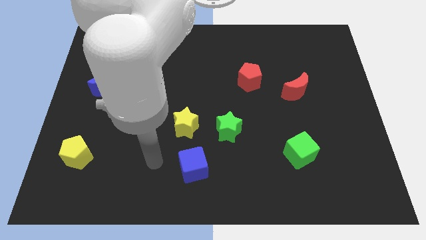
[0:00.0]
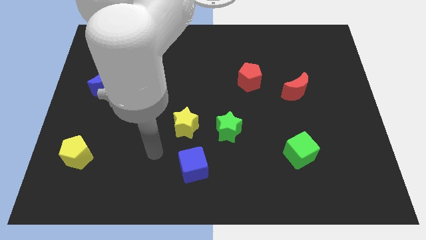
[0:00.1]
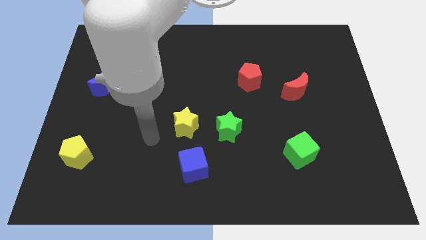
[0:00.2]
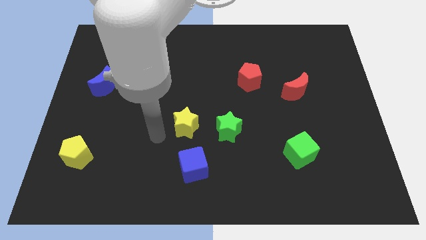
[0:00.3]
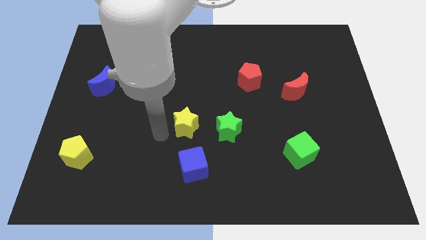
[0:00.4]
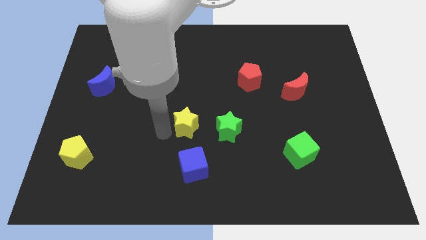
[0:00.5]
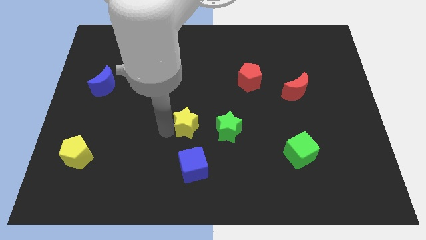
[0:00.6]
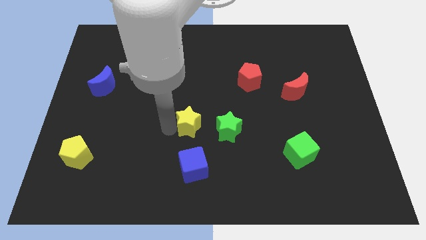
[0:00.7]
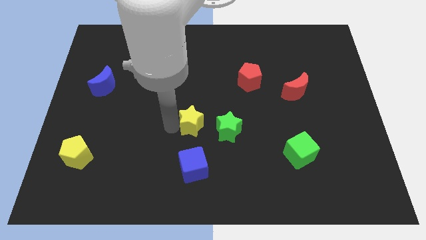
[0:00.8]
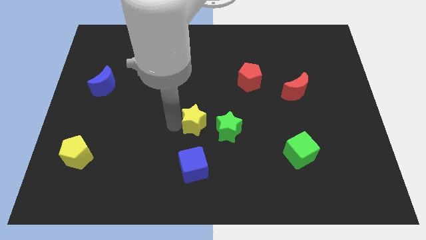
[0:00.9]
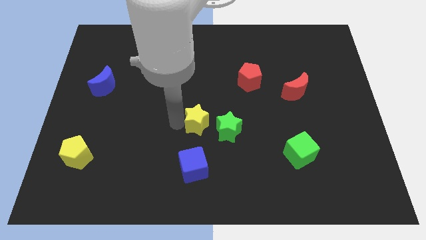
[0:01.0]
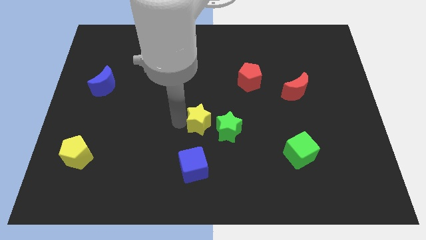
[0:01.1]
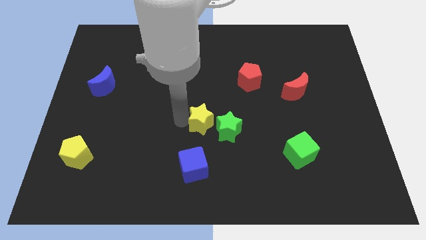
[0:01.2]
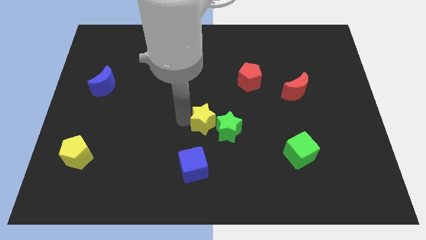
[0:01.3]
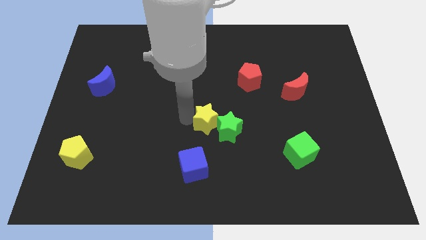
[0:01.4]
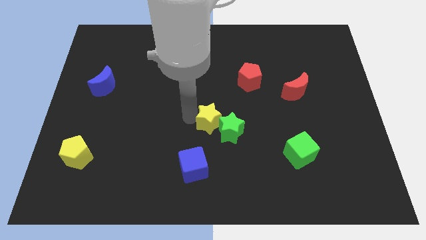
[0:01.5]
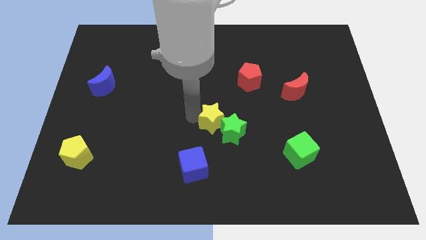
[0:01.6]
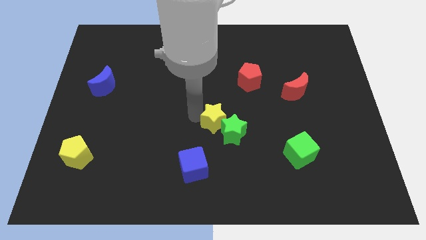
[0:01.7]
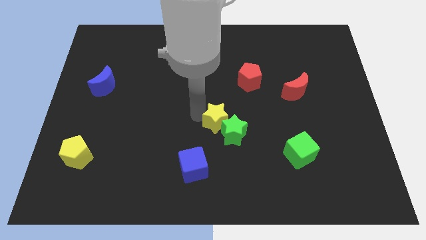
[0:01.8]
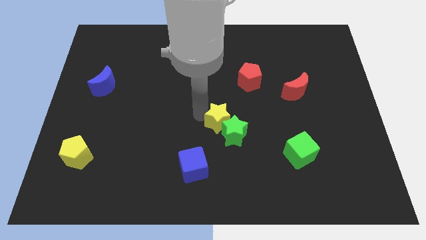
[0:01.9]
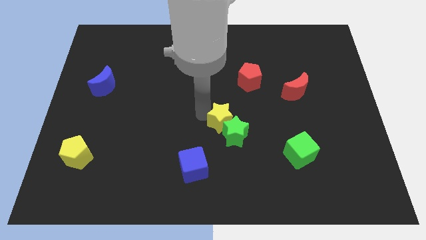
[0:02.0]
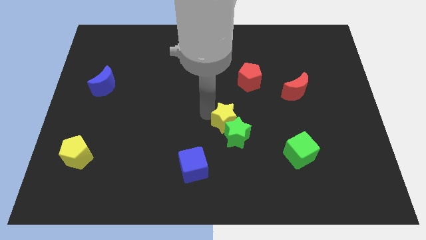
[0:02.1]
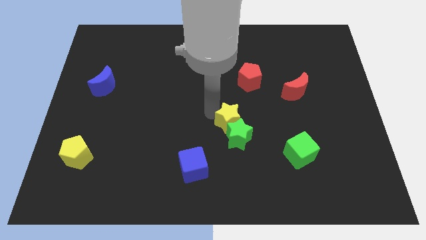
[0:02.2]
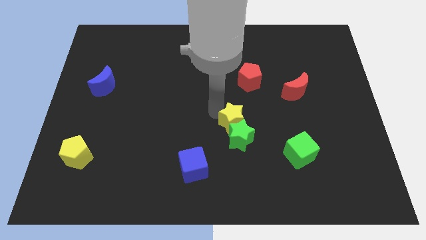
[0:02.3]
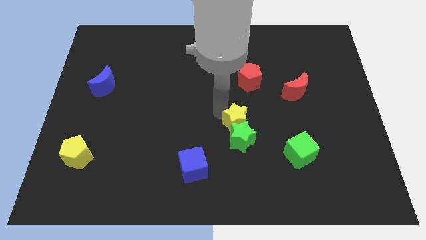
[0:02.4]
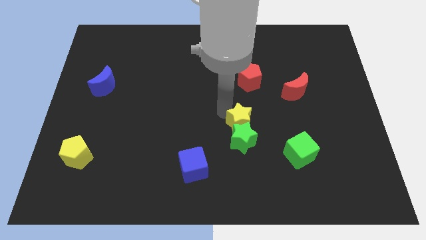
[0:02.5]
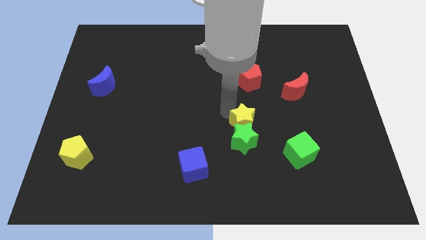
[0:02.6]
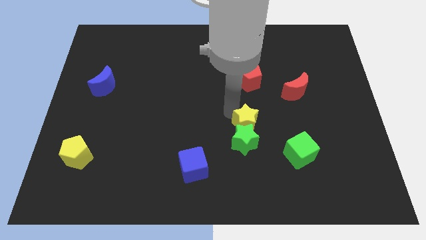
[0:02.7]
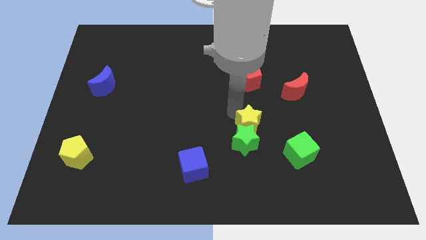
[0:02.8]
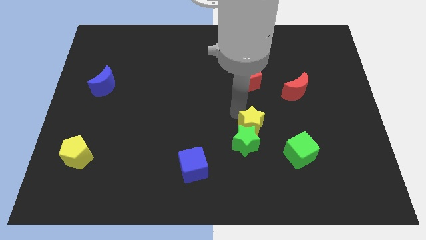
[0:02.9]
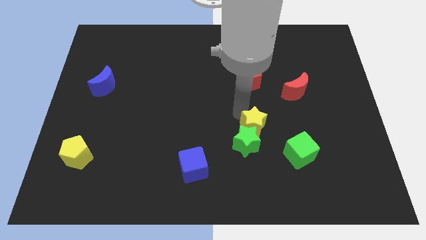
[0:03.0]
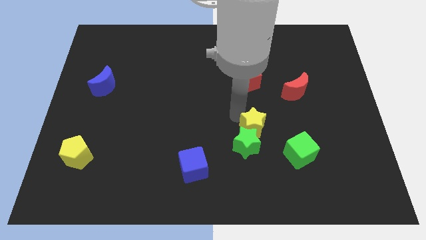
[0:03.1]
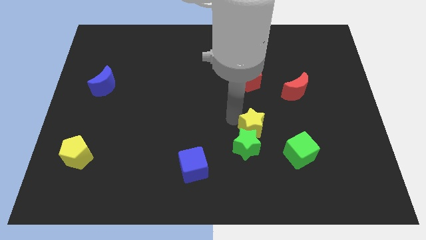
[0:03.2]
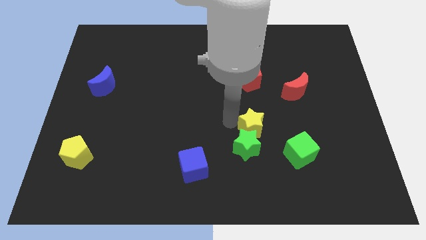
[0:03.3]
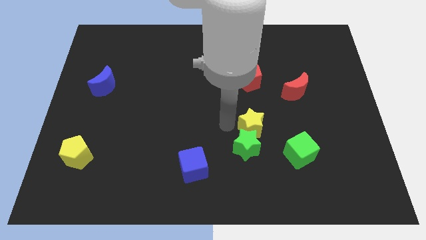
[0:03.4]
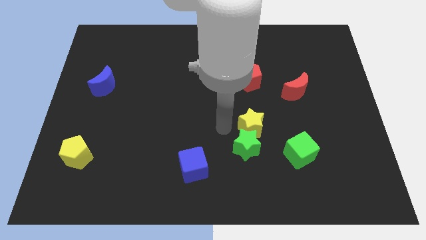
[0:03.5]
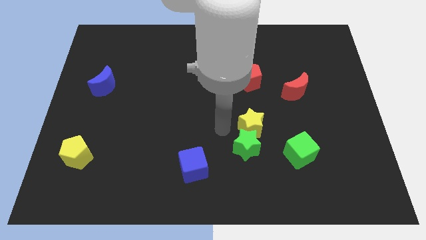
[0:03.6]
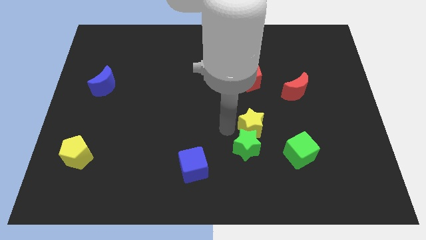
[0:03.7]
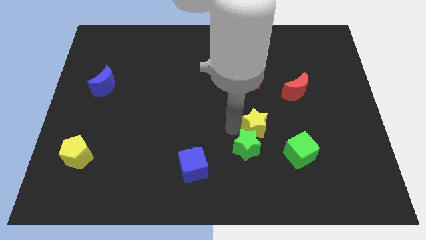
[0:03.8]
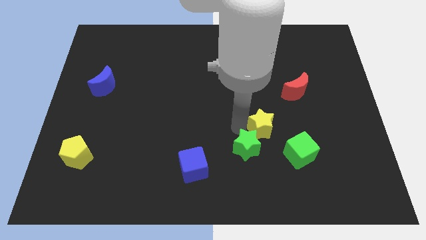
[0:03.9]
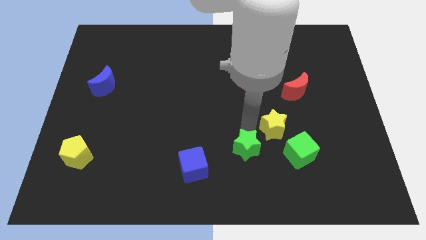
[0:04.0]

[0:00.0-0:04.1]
move the yellow star right

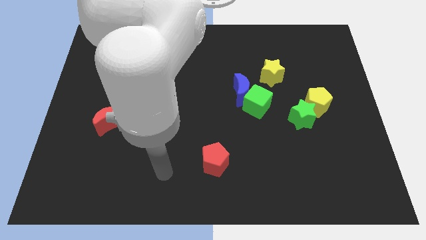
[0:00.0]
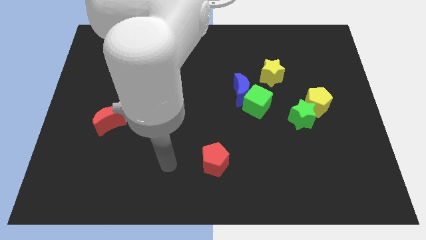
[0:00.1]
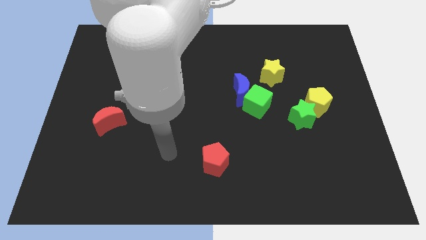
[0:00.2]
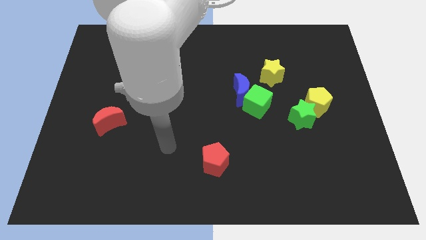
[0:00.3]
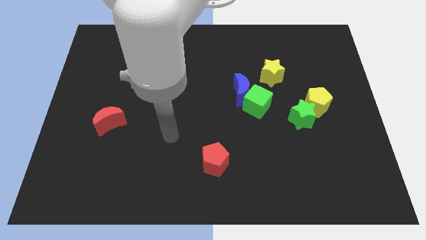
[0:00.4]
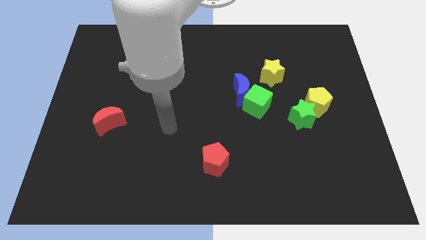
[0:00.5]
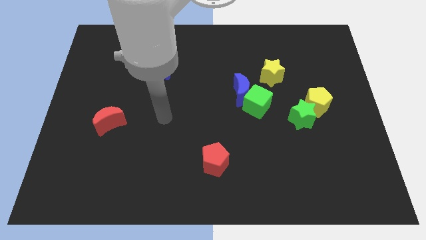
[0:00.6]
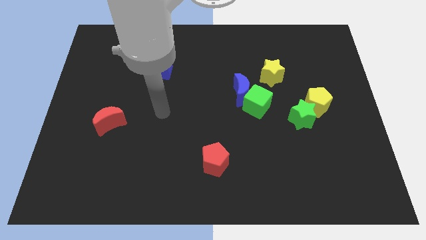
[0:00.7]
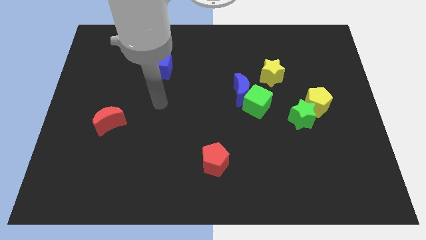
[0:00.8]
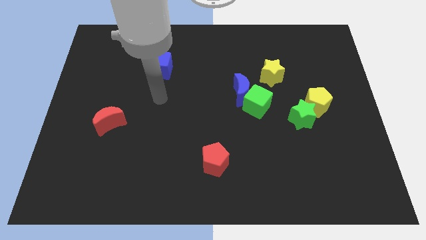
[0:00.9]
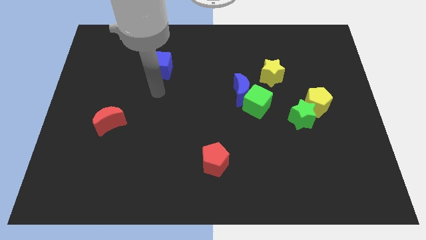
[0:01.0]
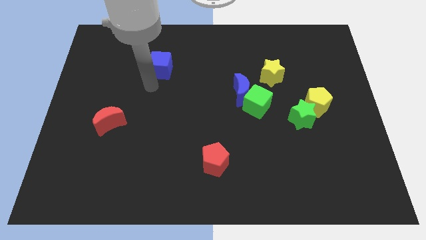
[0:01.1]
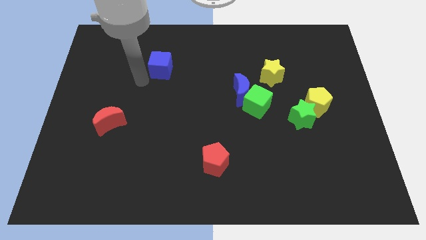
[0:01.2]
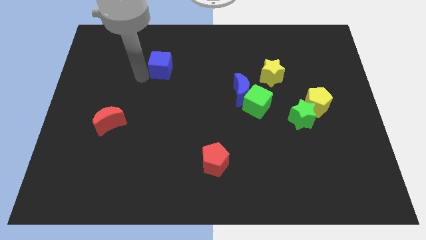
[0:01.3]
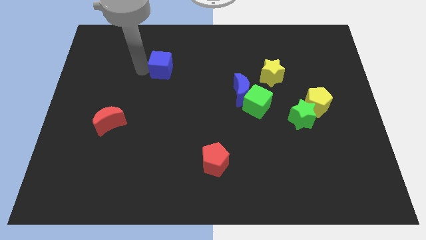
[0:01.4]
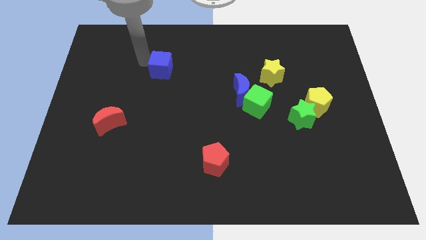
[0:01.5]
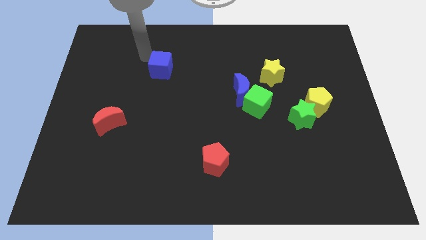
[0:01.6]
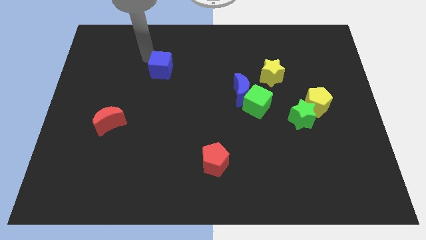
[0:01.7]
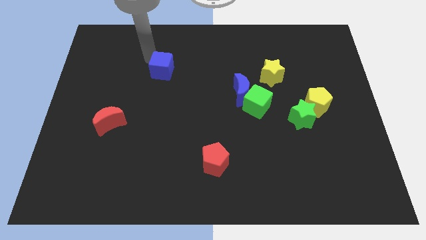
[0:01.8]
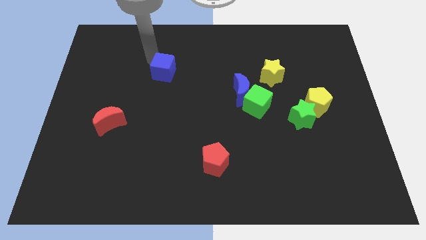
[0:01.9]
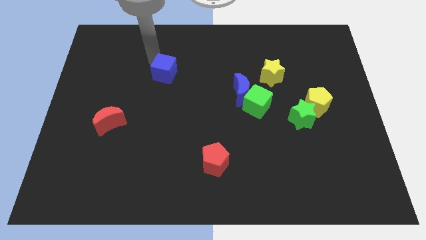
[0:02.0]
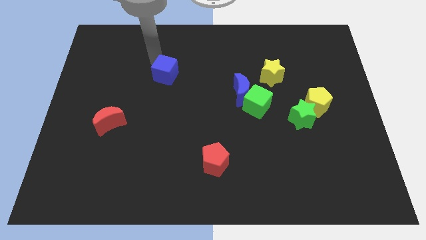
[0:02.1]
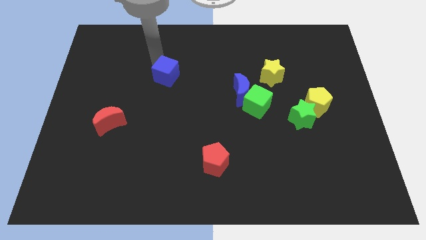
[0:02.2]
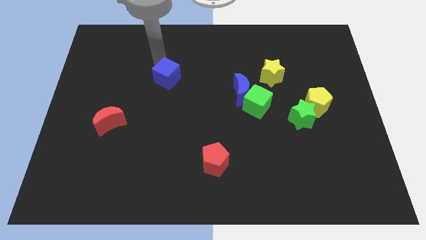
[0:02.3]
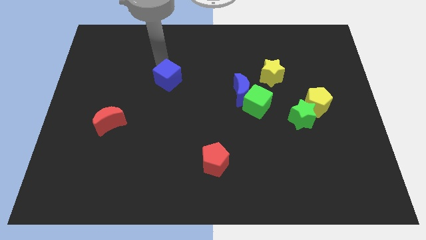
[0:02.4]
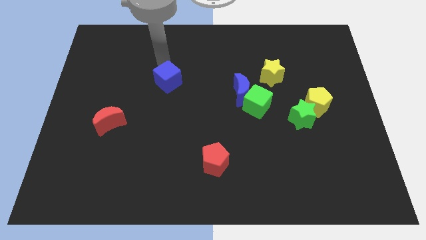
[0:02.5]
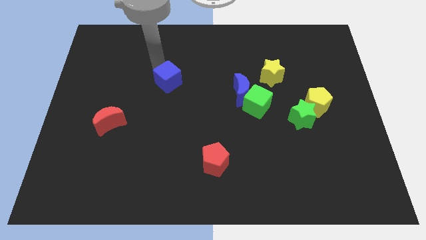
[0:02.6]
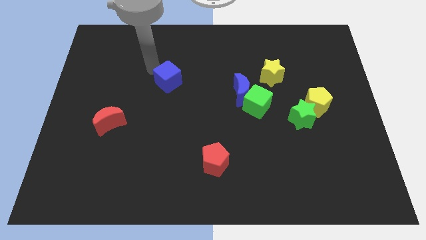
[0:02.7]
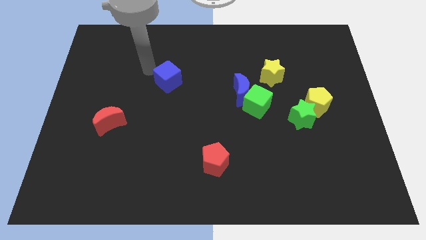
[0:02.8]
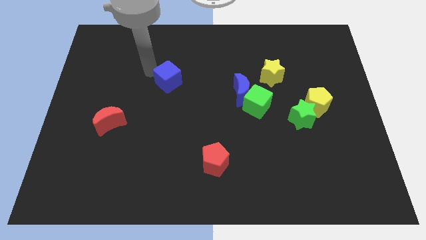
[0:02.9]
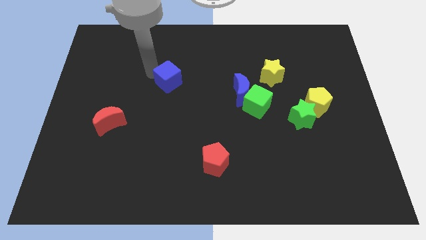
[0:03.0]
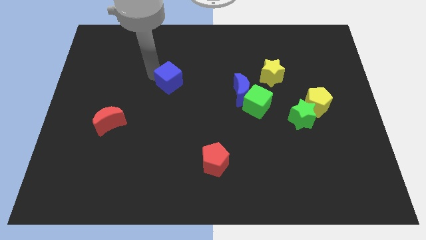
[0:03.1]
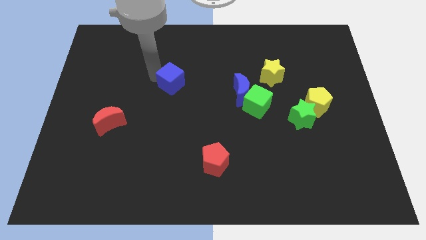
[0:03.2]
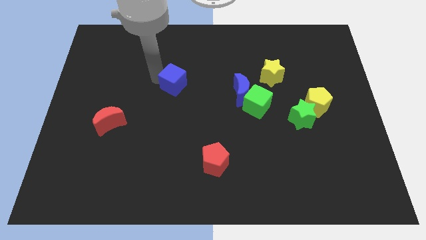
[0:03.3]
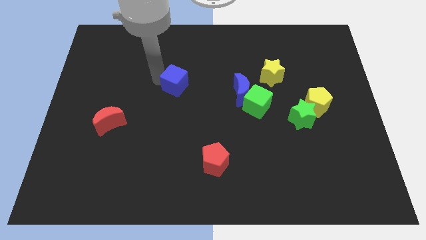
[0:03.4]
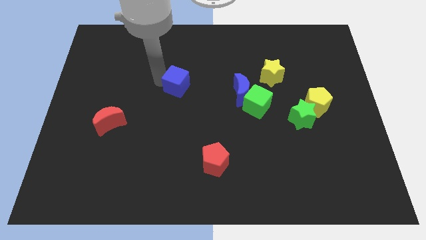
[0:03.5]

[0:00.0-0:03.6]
move the blue cube down and to the right diagonally somewhat

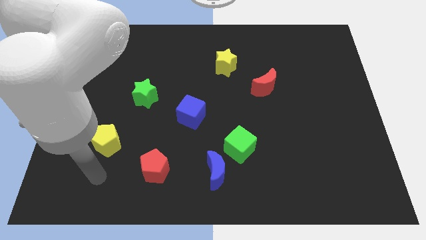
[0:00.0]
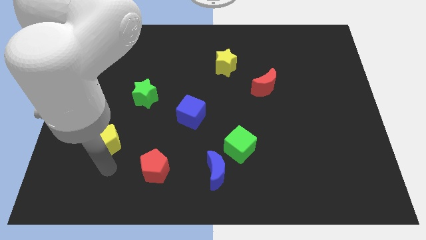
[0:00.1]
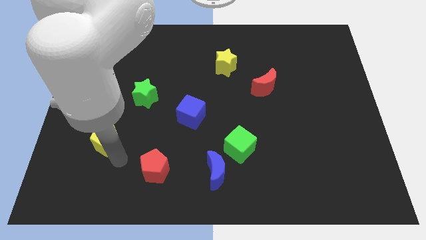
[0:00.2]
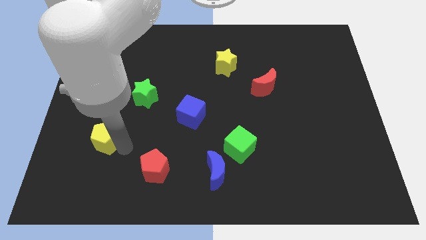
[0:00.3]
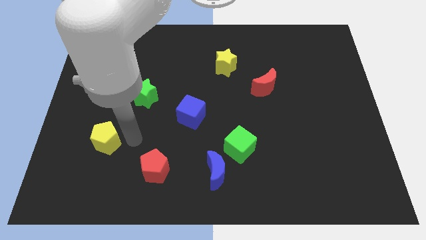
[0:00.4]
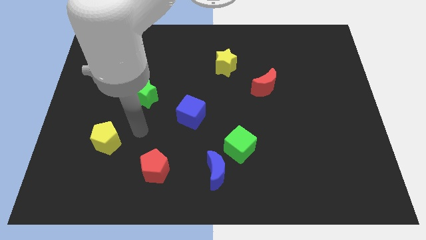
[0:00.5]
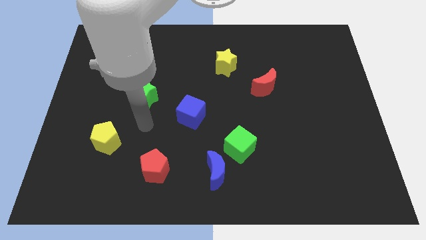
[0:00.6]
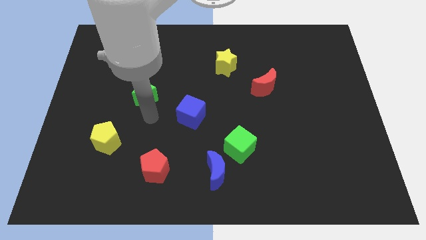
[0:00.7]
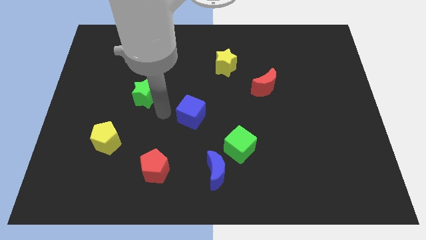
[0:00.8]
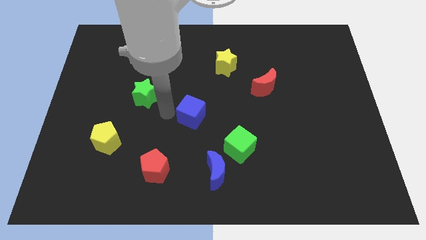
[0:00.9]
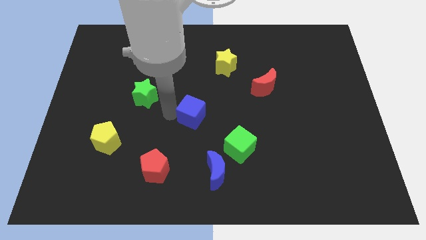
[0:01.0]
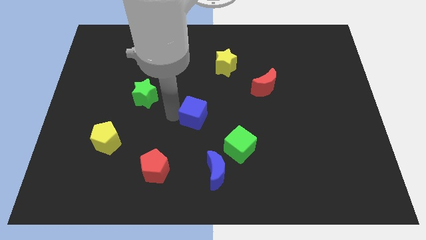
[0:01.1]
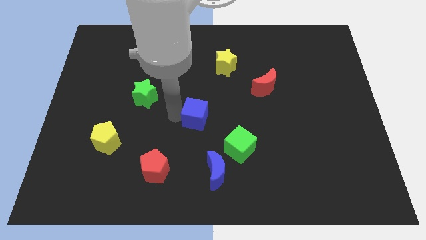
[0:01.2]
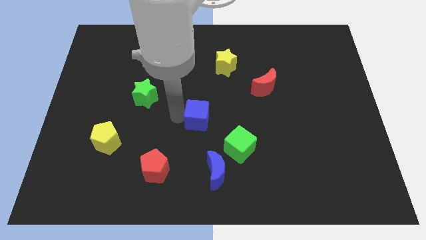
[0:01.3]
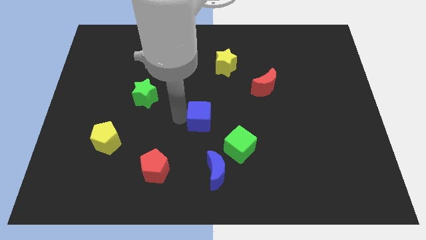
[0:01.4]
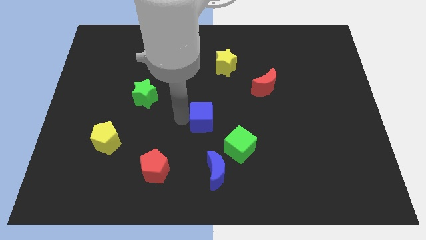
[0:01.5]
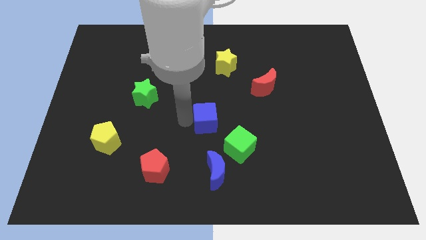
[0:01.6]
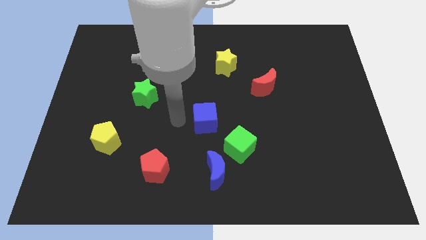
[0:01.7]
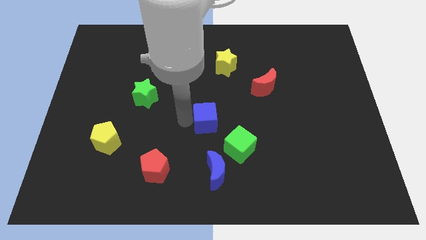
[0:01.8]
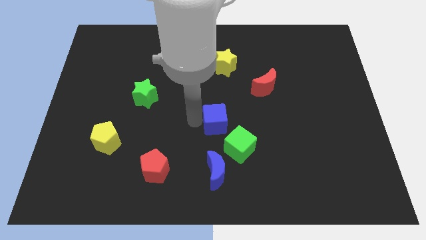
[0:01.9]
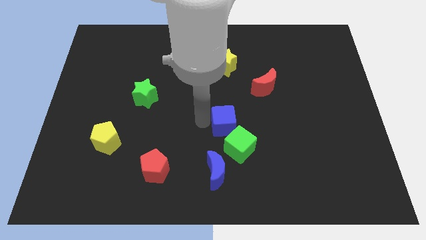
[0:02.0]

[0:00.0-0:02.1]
slide the blue cube a bit right
